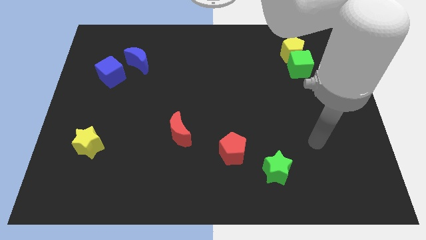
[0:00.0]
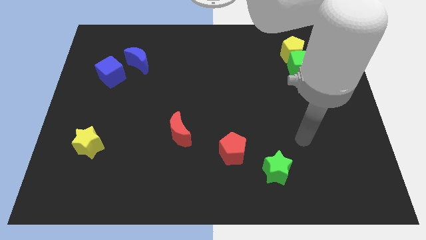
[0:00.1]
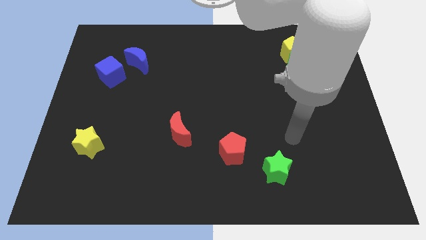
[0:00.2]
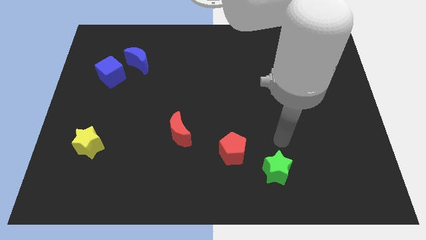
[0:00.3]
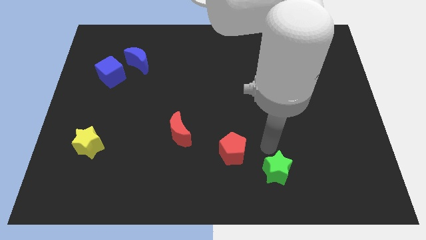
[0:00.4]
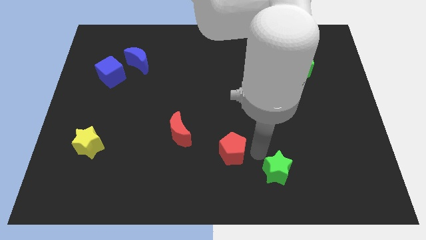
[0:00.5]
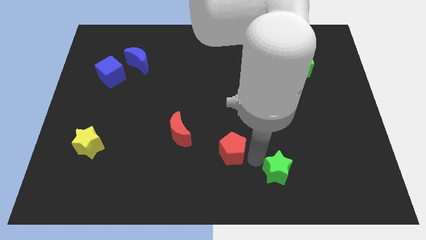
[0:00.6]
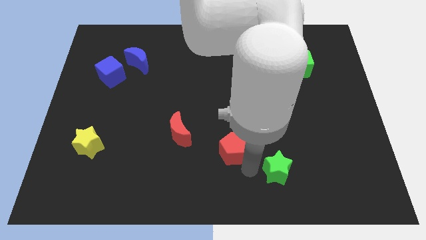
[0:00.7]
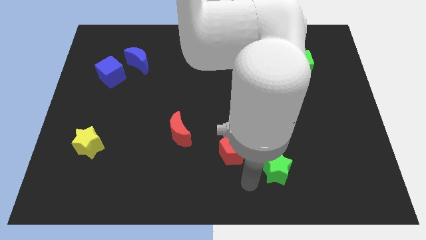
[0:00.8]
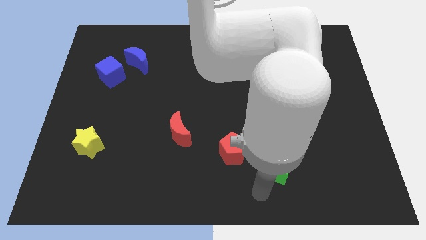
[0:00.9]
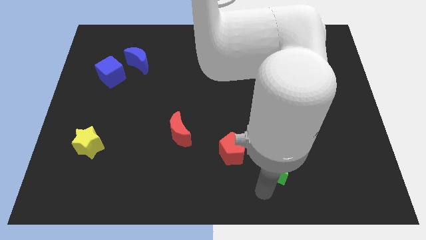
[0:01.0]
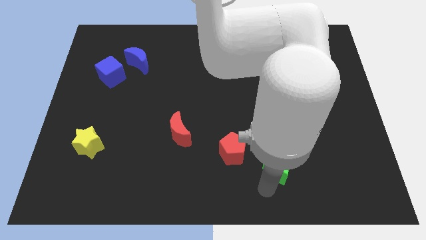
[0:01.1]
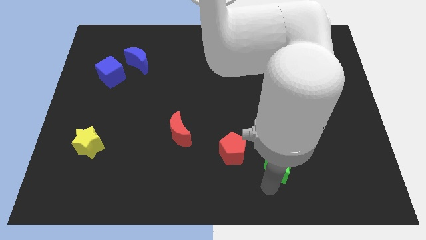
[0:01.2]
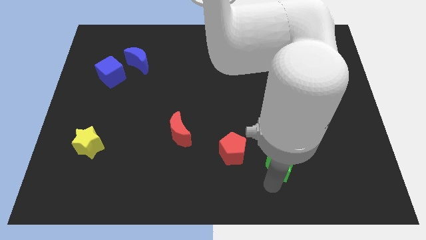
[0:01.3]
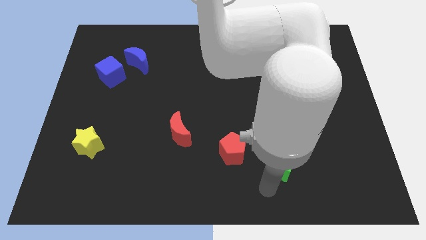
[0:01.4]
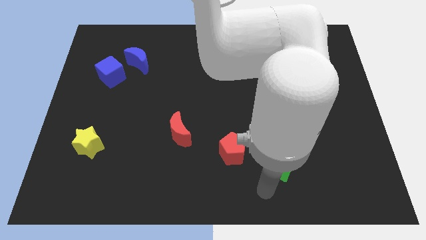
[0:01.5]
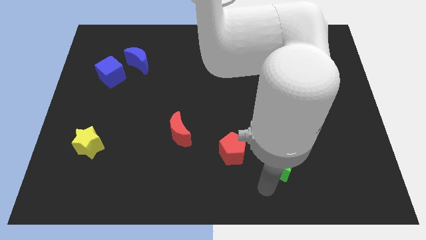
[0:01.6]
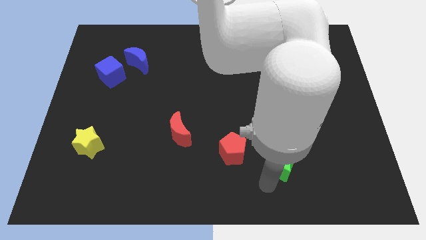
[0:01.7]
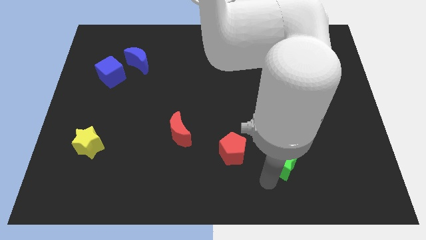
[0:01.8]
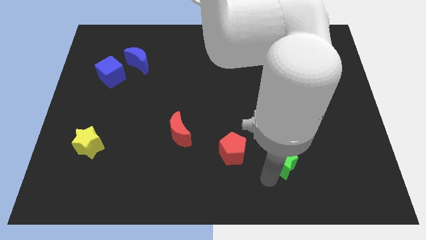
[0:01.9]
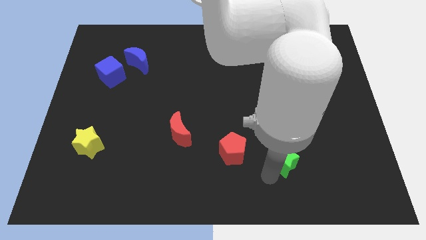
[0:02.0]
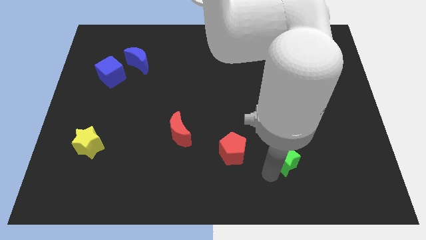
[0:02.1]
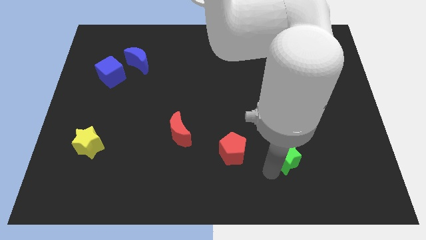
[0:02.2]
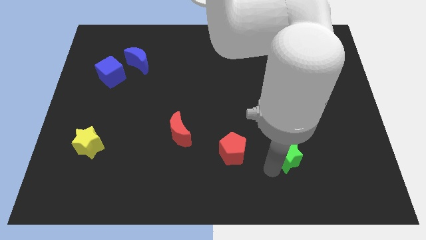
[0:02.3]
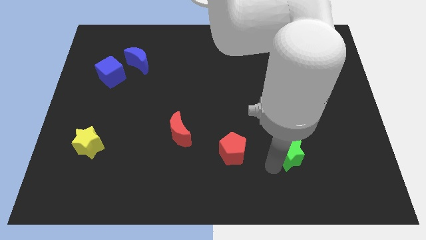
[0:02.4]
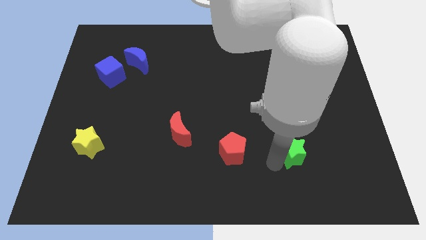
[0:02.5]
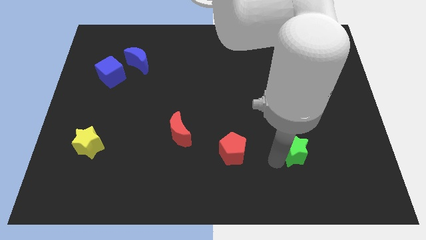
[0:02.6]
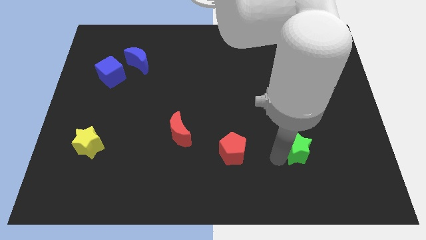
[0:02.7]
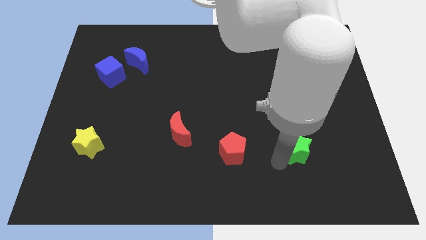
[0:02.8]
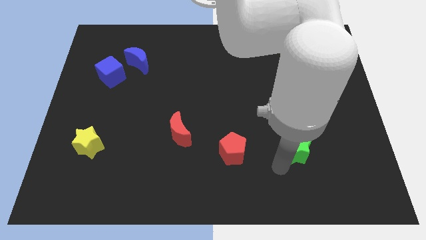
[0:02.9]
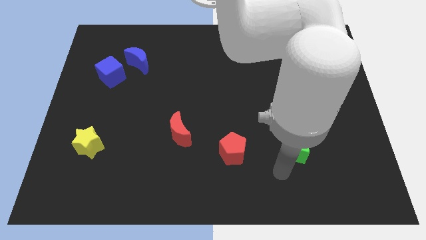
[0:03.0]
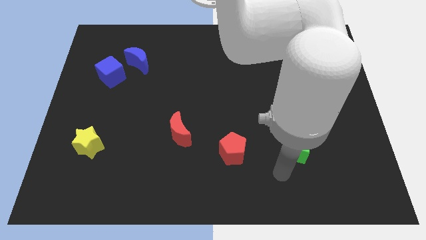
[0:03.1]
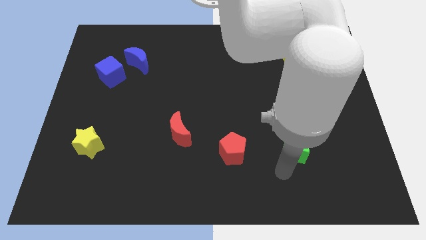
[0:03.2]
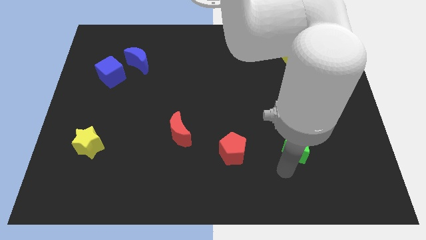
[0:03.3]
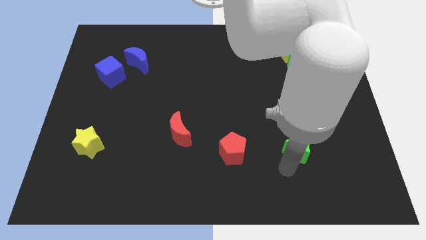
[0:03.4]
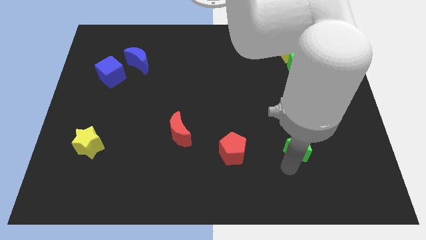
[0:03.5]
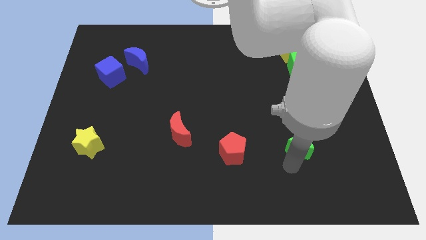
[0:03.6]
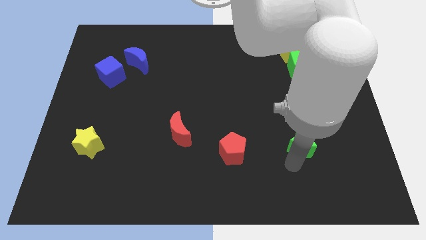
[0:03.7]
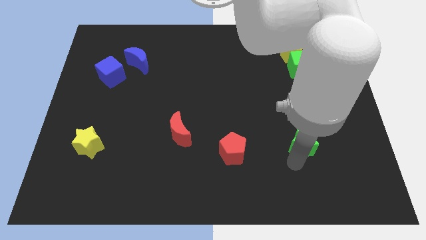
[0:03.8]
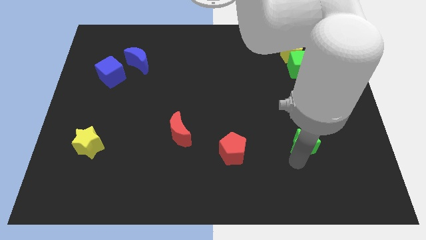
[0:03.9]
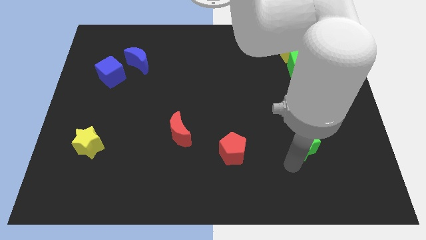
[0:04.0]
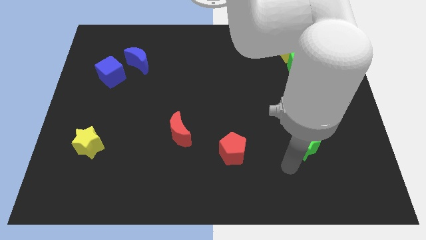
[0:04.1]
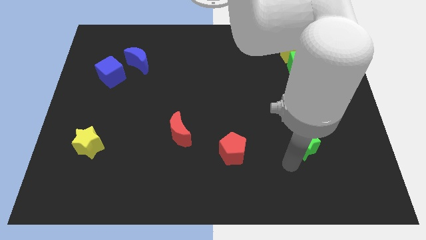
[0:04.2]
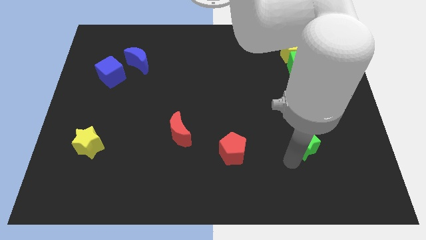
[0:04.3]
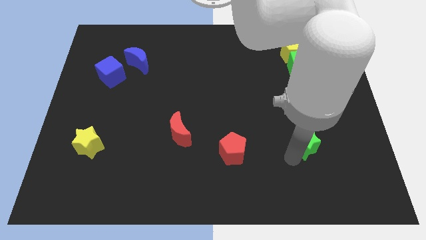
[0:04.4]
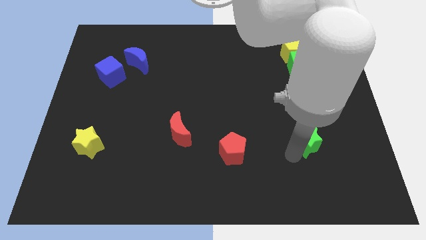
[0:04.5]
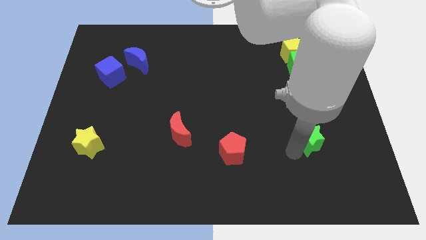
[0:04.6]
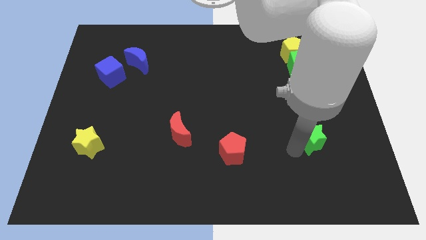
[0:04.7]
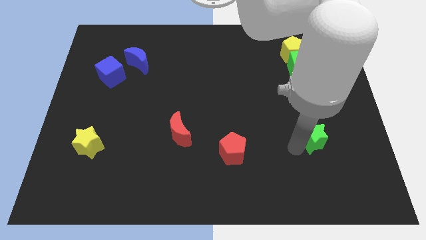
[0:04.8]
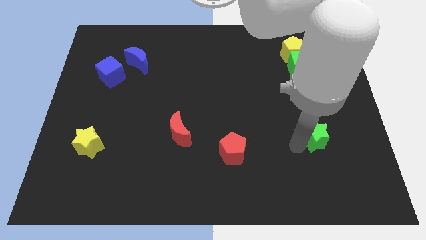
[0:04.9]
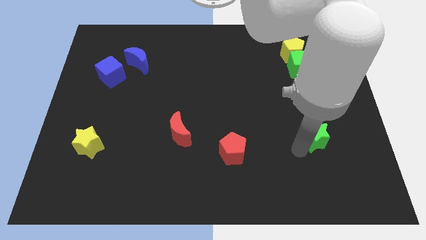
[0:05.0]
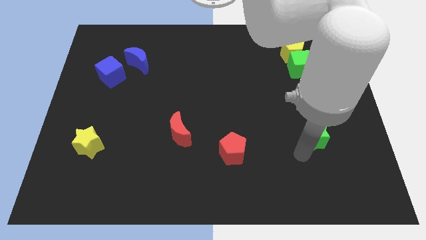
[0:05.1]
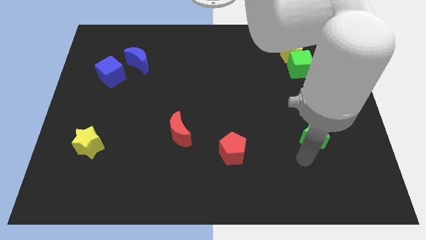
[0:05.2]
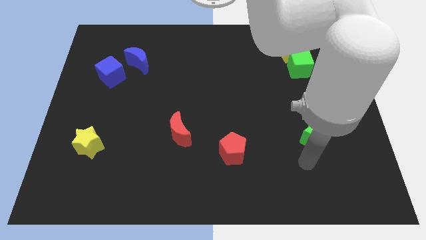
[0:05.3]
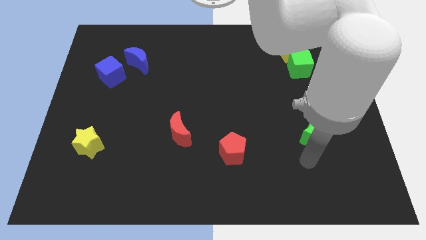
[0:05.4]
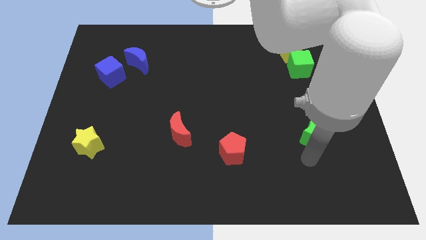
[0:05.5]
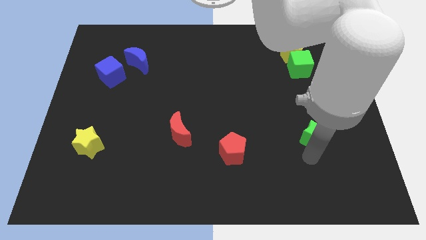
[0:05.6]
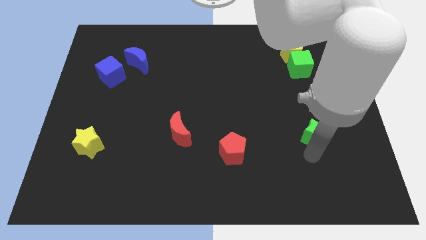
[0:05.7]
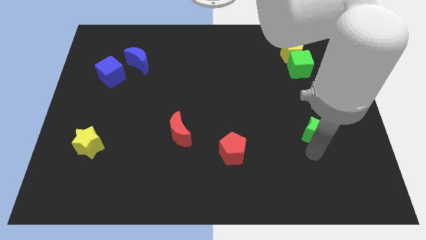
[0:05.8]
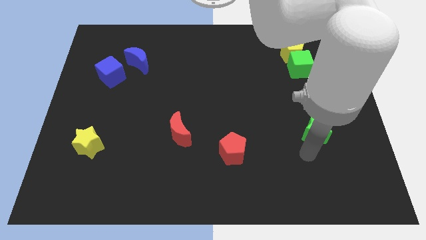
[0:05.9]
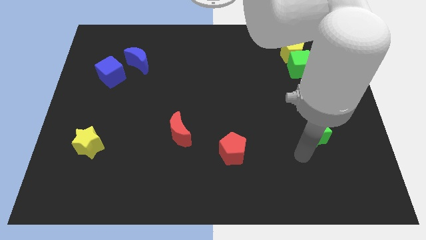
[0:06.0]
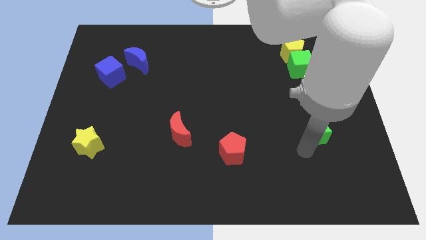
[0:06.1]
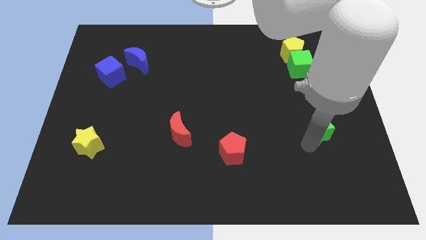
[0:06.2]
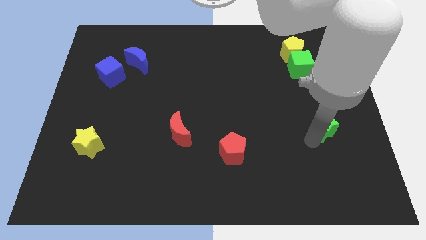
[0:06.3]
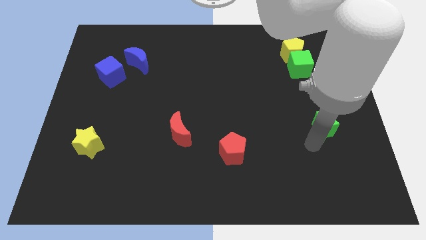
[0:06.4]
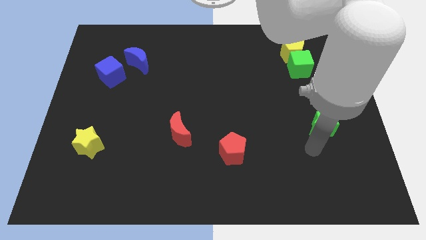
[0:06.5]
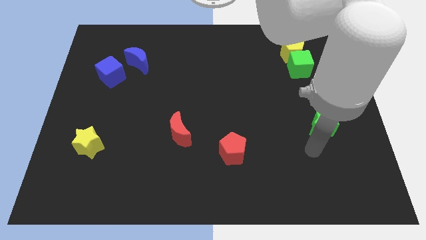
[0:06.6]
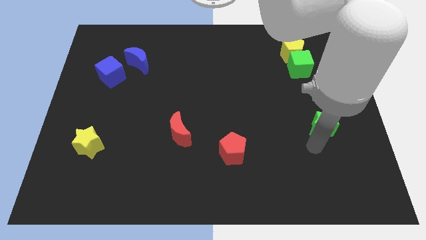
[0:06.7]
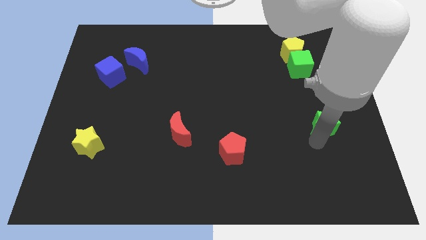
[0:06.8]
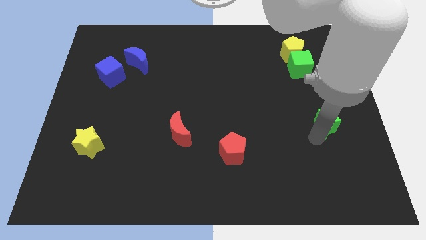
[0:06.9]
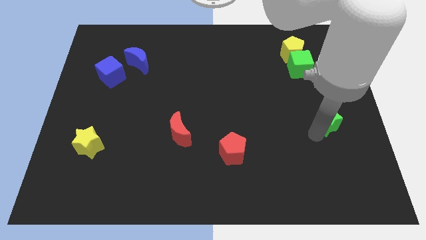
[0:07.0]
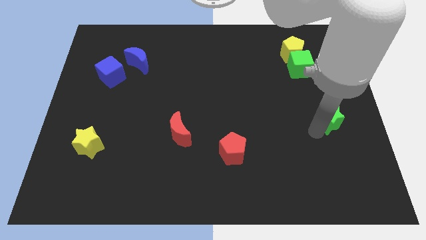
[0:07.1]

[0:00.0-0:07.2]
slide the green star to the right side
